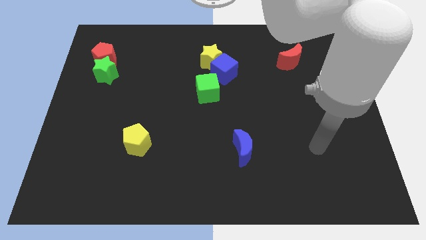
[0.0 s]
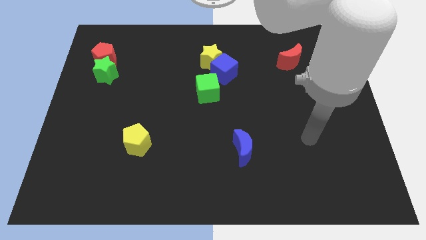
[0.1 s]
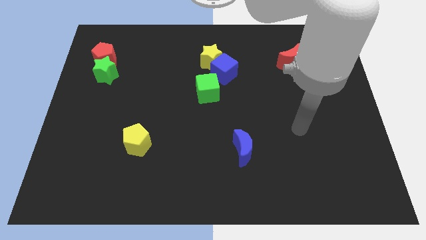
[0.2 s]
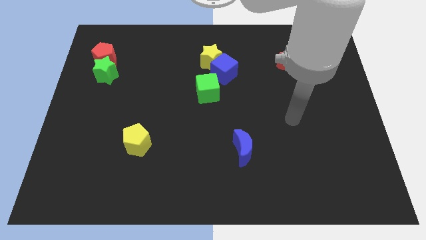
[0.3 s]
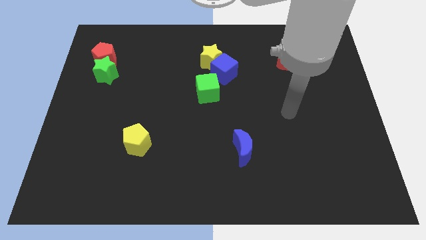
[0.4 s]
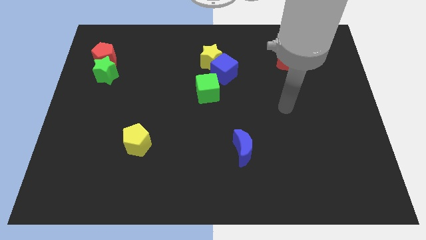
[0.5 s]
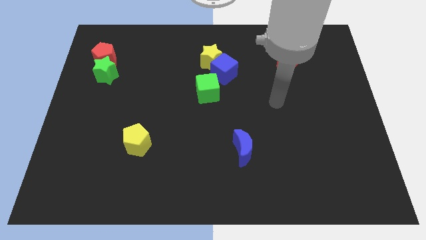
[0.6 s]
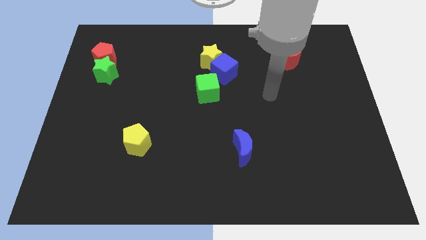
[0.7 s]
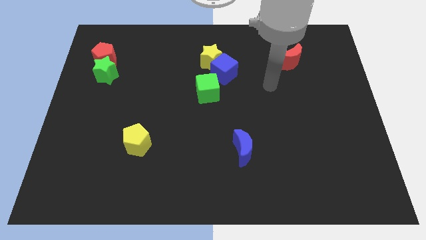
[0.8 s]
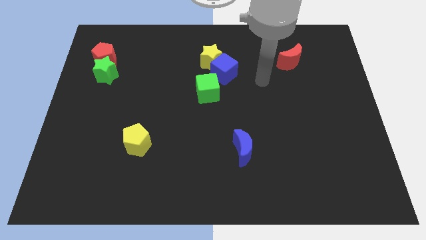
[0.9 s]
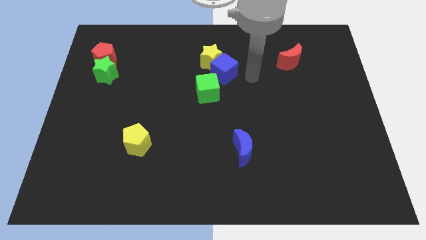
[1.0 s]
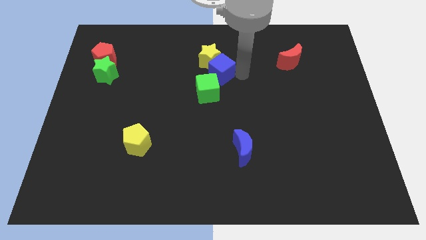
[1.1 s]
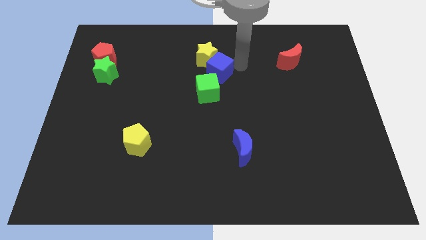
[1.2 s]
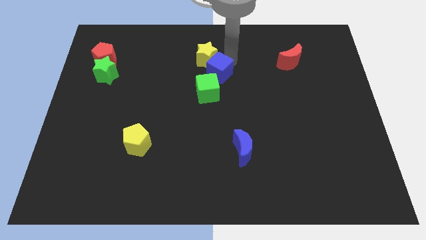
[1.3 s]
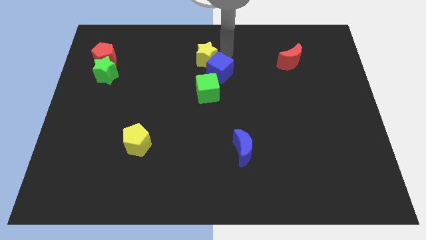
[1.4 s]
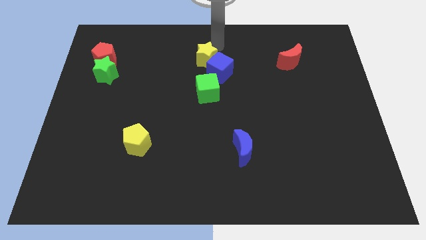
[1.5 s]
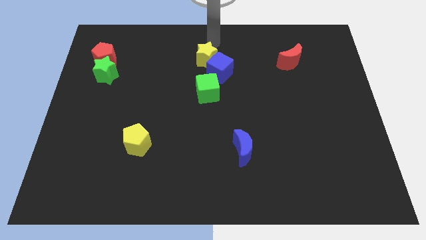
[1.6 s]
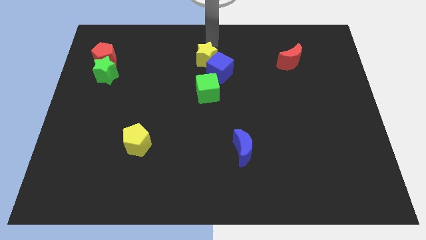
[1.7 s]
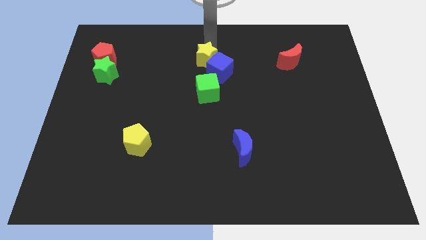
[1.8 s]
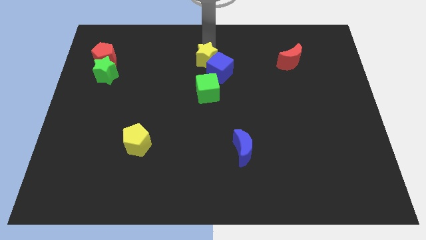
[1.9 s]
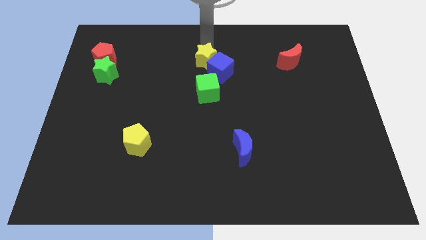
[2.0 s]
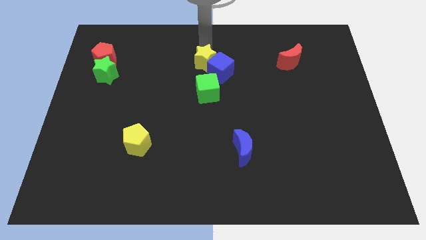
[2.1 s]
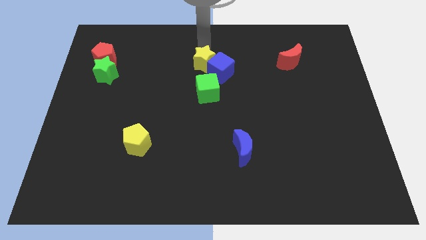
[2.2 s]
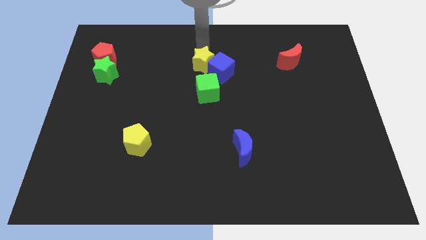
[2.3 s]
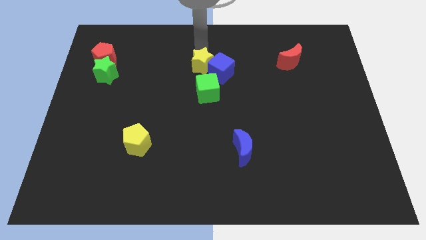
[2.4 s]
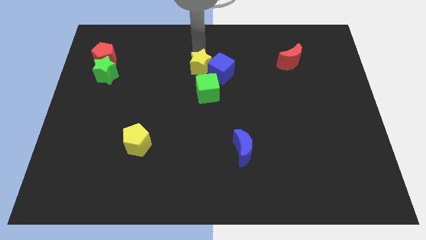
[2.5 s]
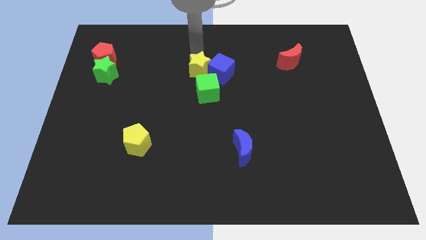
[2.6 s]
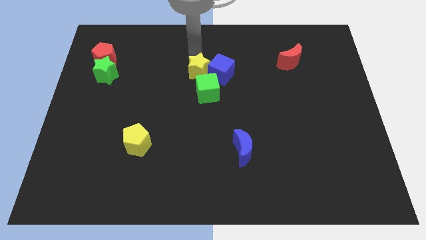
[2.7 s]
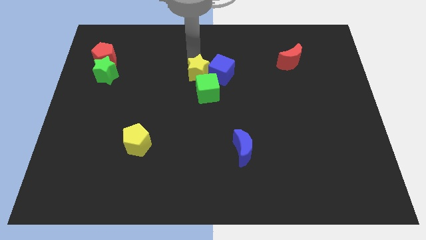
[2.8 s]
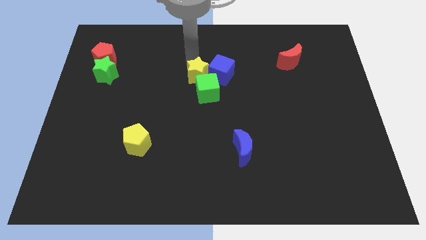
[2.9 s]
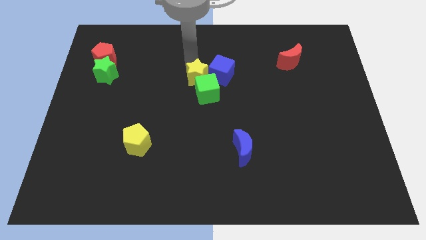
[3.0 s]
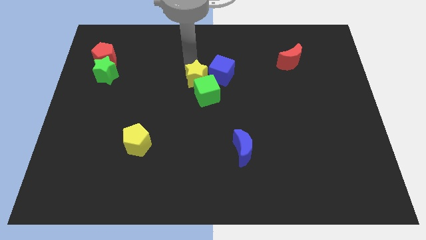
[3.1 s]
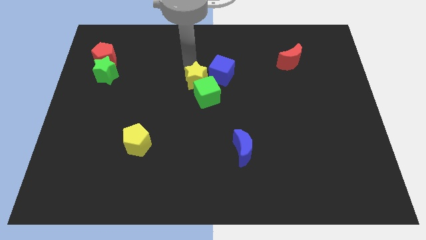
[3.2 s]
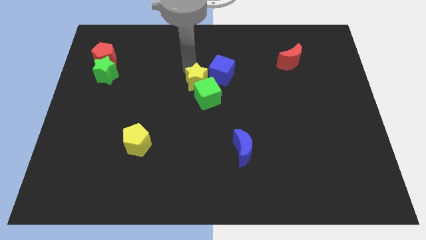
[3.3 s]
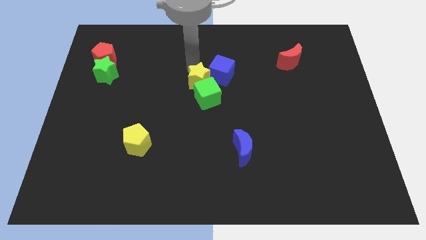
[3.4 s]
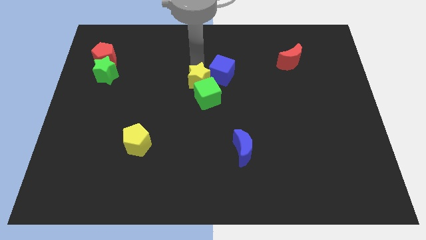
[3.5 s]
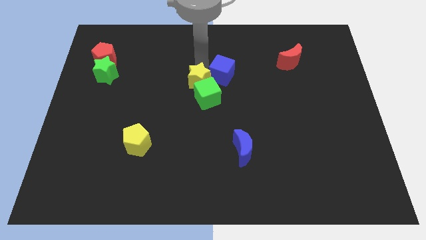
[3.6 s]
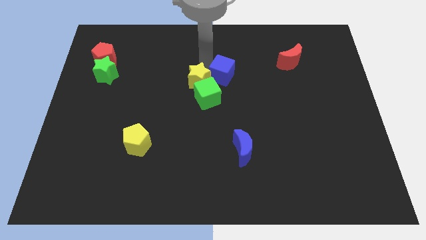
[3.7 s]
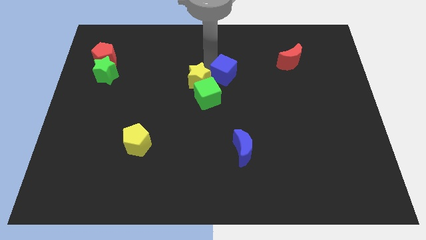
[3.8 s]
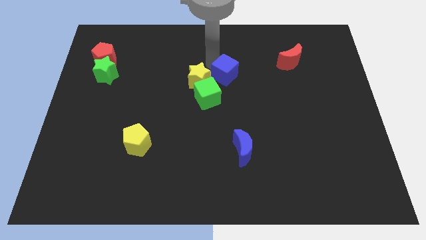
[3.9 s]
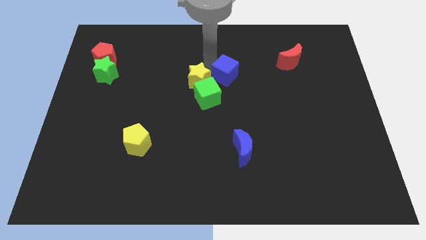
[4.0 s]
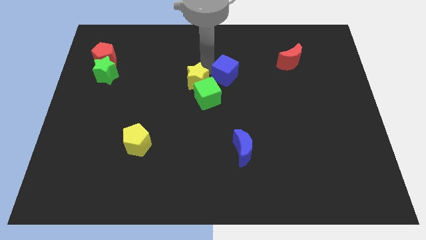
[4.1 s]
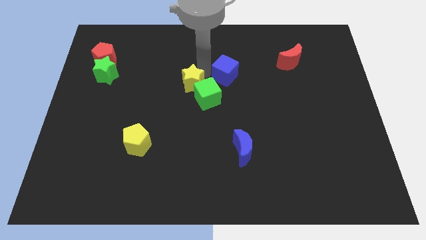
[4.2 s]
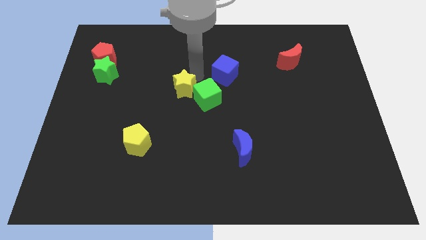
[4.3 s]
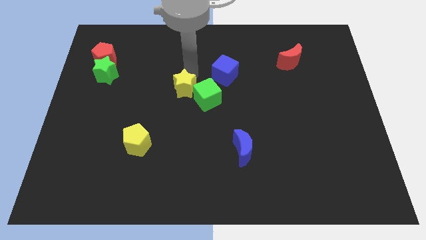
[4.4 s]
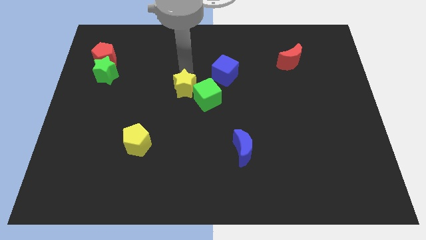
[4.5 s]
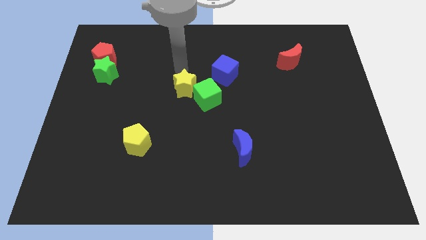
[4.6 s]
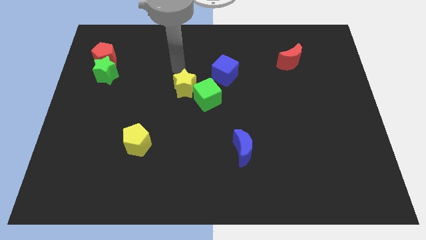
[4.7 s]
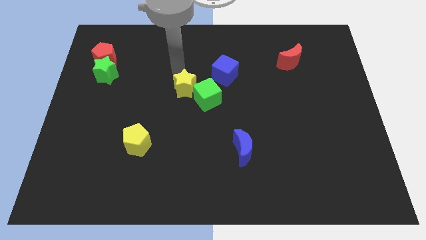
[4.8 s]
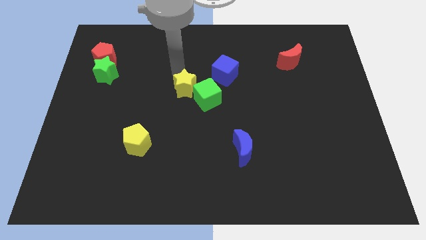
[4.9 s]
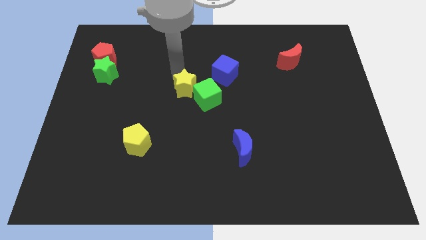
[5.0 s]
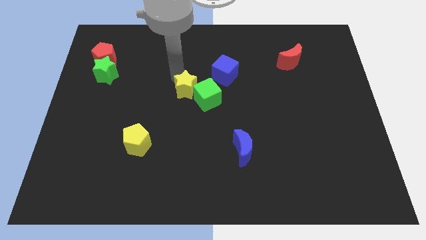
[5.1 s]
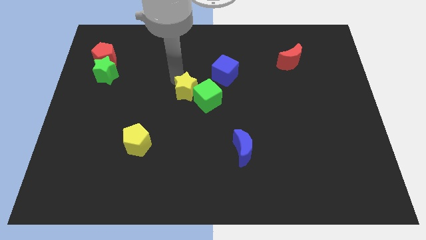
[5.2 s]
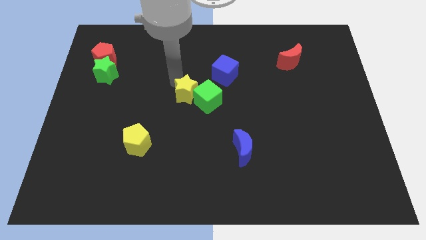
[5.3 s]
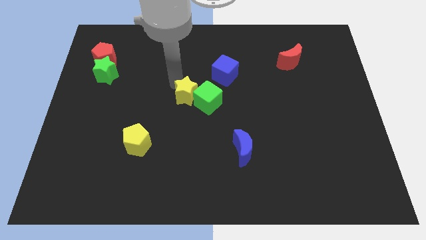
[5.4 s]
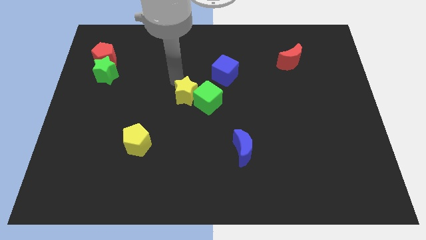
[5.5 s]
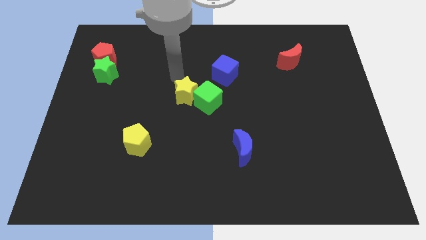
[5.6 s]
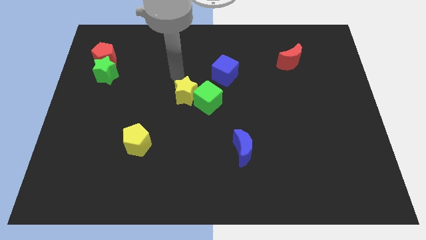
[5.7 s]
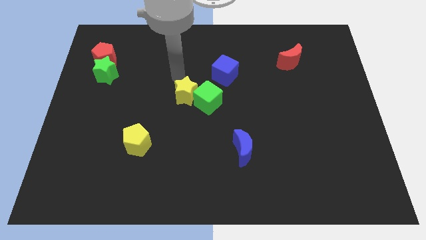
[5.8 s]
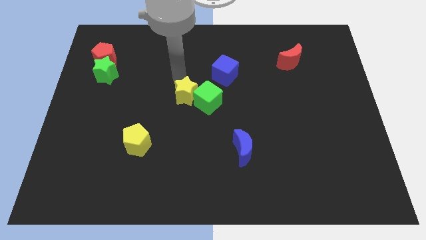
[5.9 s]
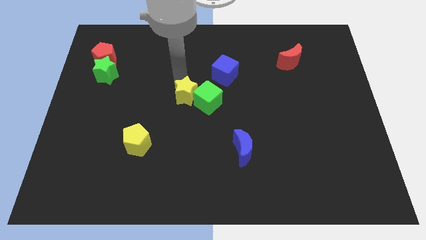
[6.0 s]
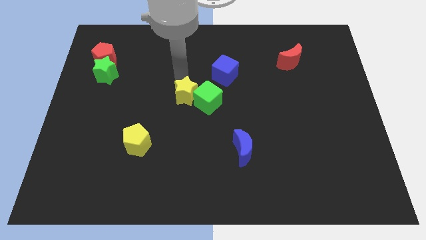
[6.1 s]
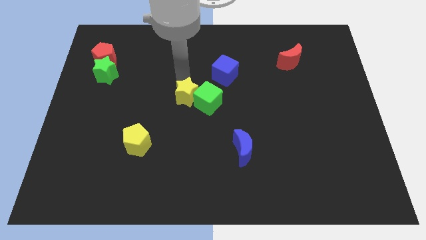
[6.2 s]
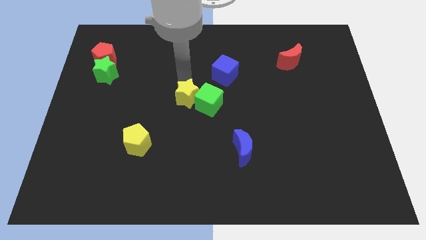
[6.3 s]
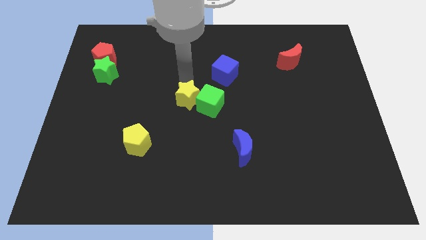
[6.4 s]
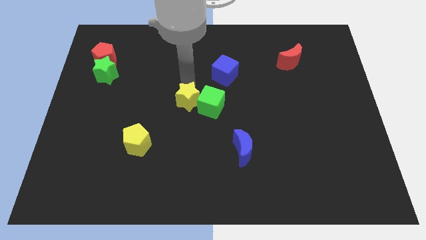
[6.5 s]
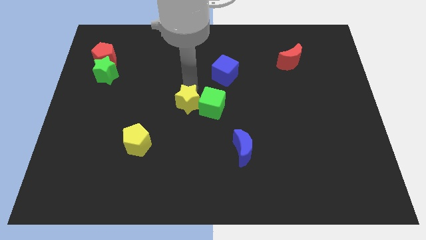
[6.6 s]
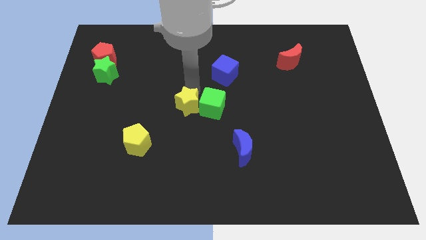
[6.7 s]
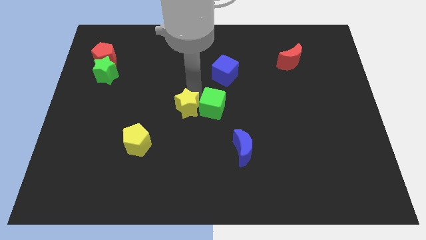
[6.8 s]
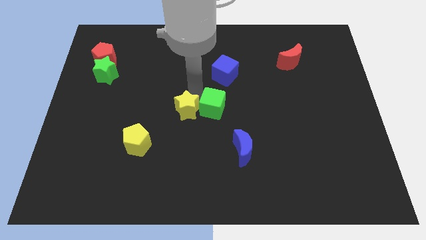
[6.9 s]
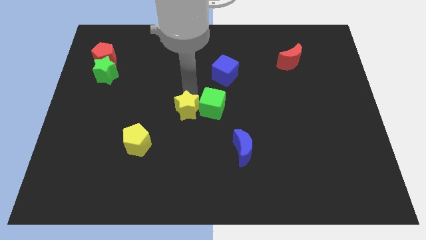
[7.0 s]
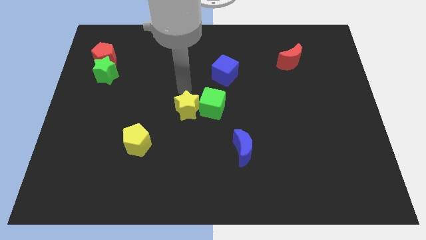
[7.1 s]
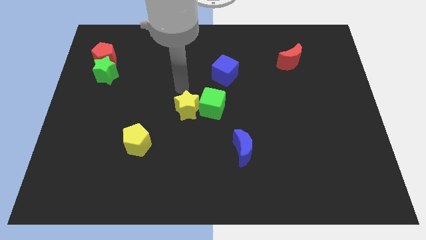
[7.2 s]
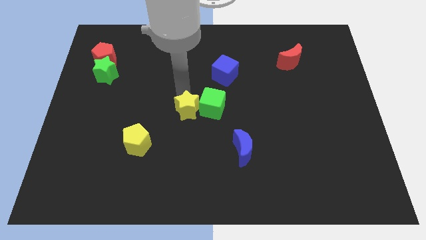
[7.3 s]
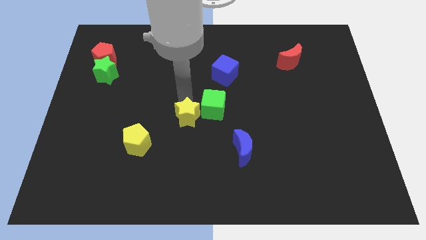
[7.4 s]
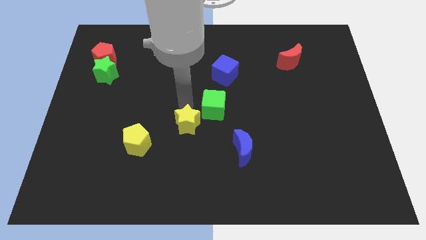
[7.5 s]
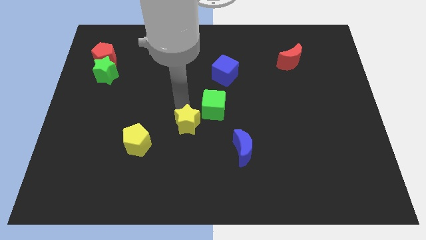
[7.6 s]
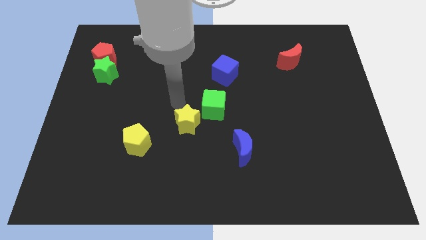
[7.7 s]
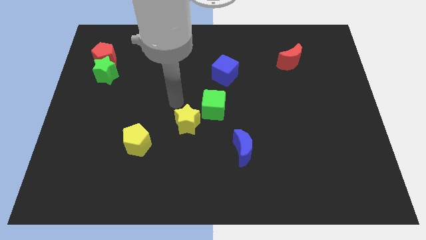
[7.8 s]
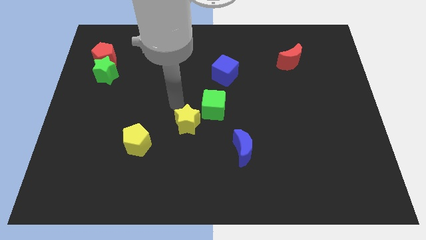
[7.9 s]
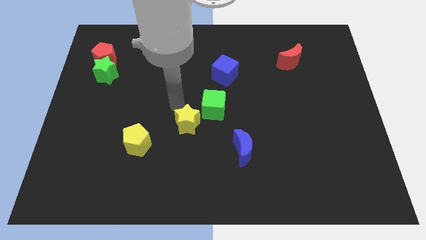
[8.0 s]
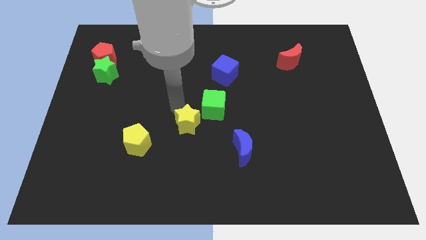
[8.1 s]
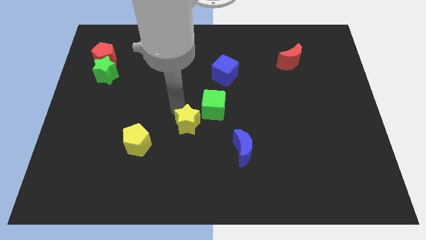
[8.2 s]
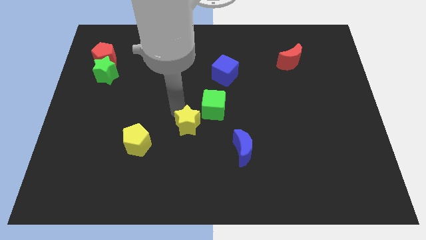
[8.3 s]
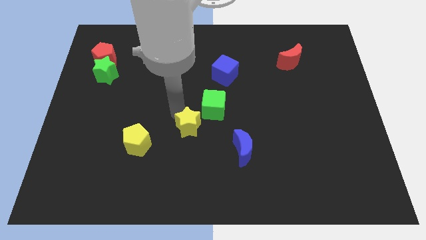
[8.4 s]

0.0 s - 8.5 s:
slide the yellow star down
